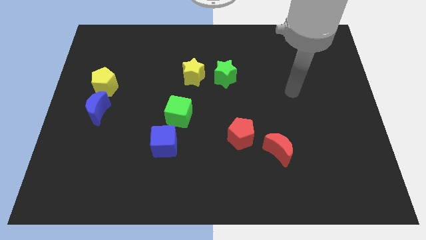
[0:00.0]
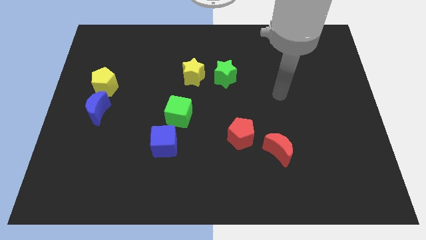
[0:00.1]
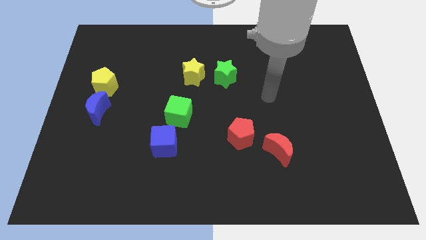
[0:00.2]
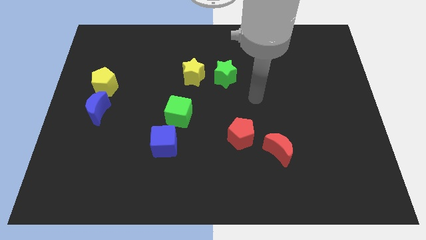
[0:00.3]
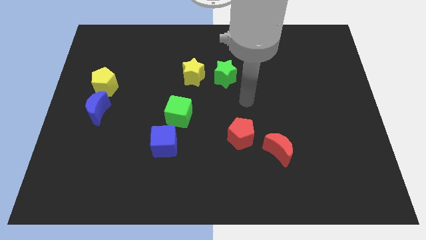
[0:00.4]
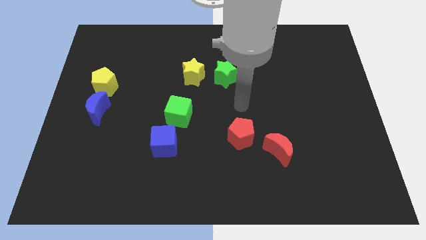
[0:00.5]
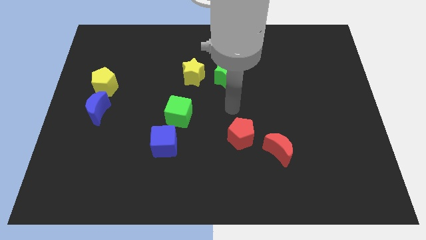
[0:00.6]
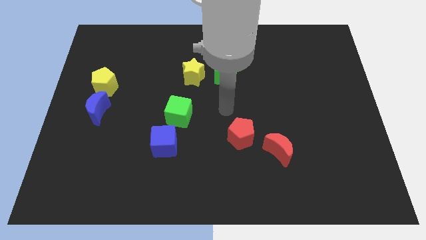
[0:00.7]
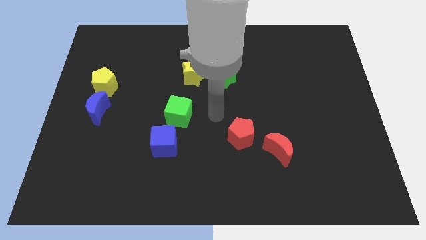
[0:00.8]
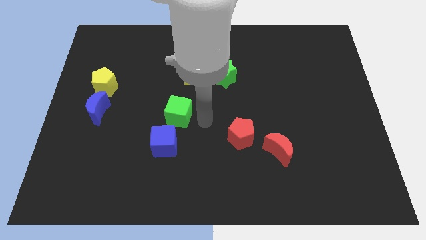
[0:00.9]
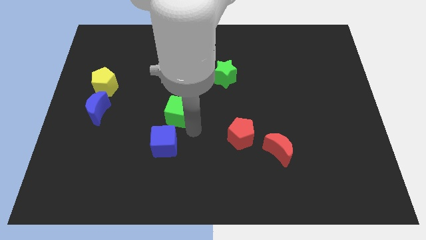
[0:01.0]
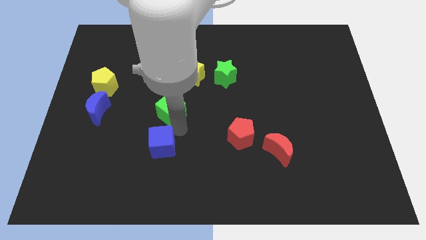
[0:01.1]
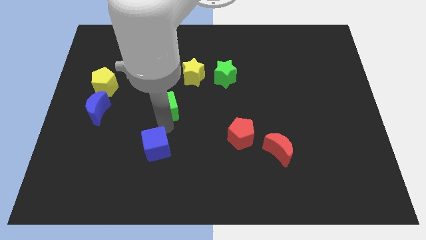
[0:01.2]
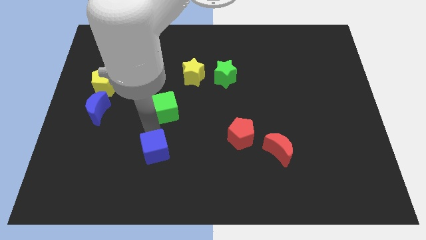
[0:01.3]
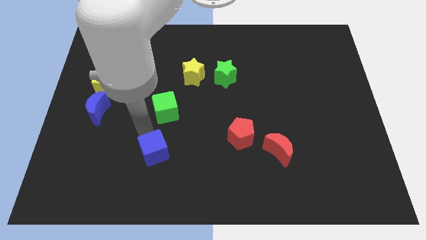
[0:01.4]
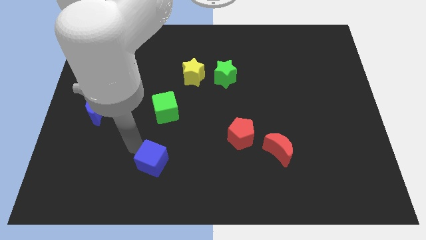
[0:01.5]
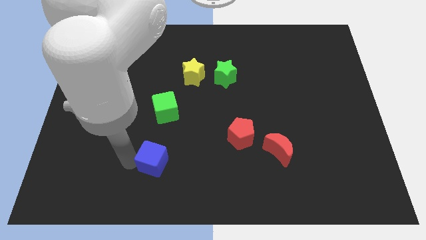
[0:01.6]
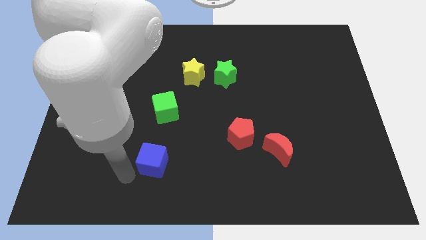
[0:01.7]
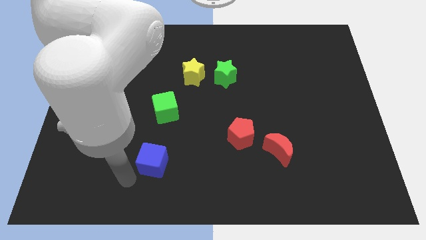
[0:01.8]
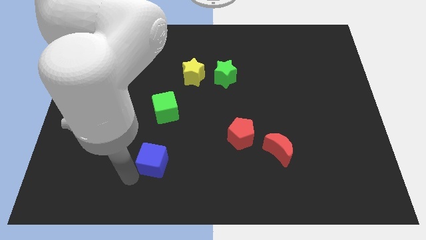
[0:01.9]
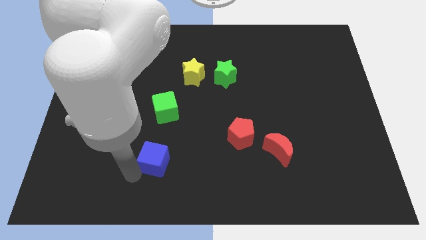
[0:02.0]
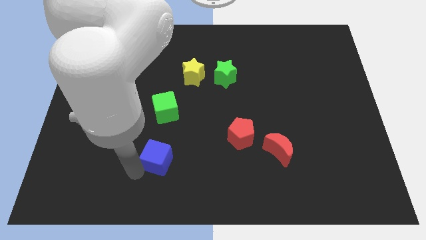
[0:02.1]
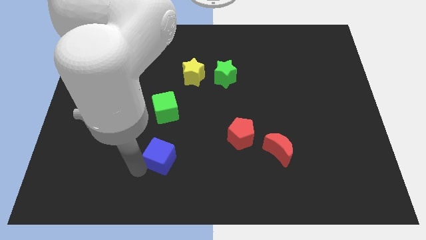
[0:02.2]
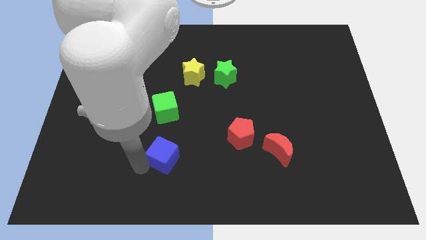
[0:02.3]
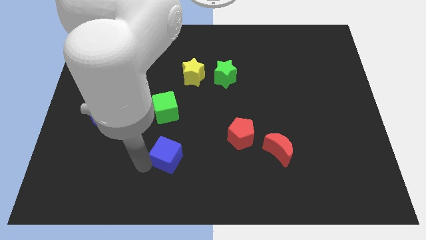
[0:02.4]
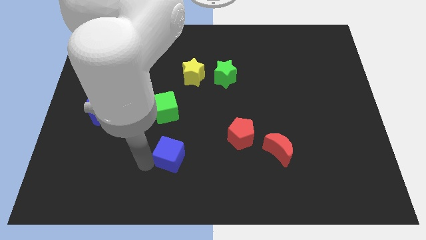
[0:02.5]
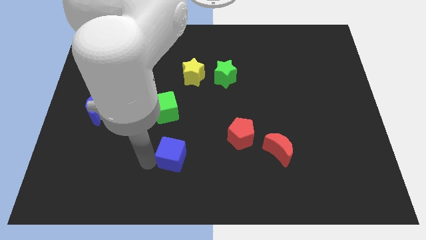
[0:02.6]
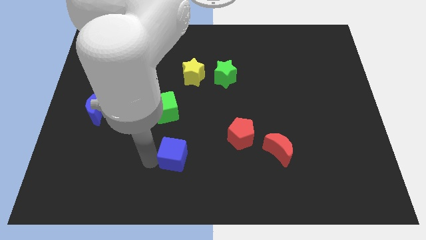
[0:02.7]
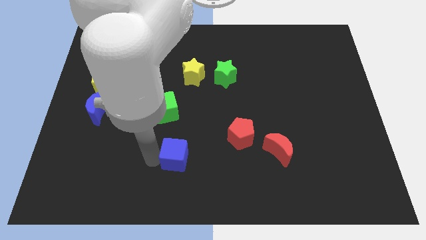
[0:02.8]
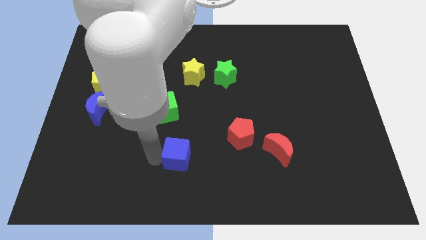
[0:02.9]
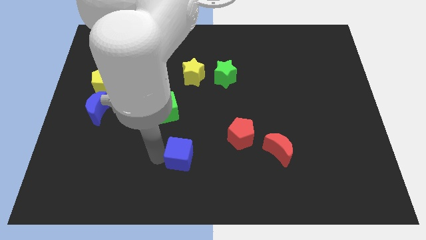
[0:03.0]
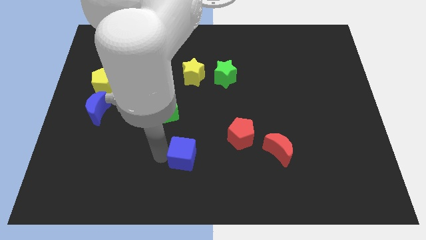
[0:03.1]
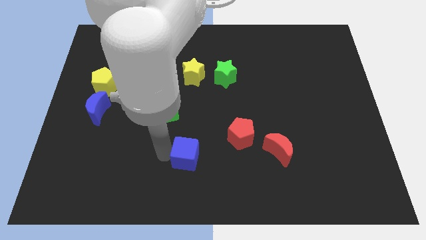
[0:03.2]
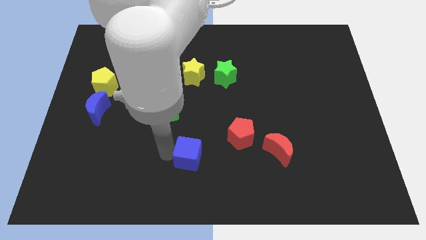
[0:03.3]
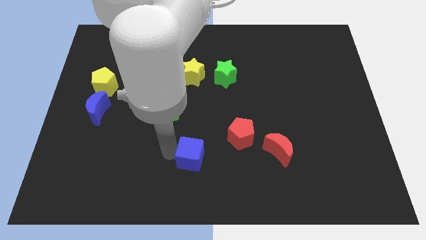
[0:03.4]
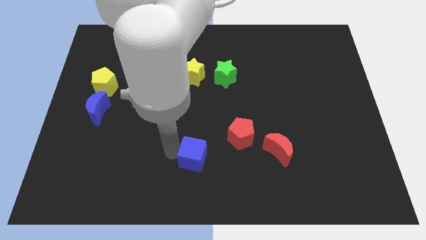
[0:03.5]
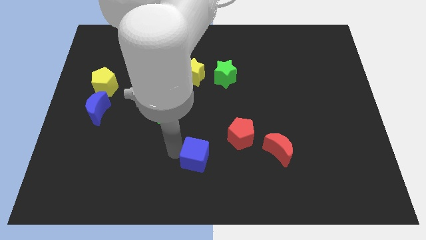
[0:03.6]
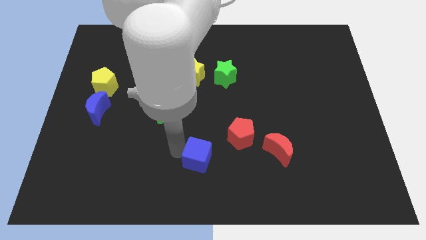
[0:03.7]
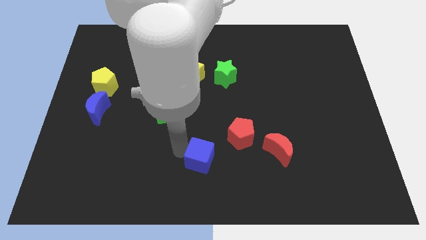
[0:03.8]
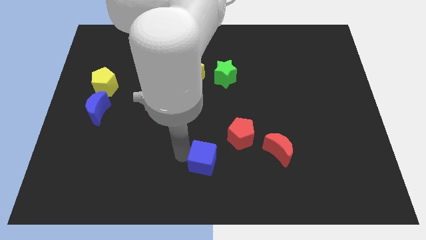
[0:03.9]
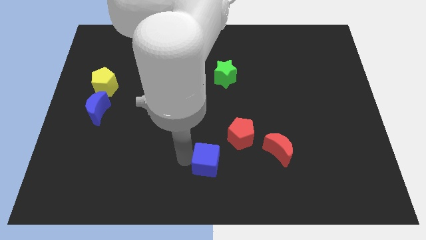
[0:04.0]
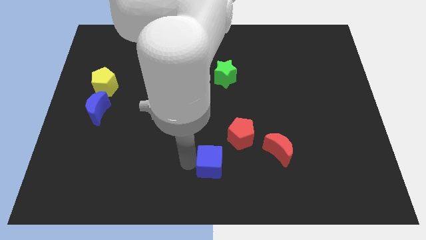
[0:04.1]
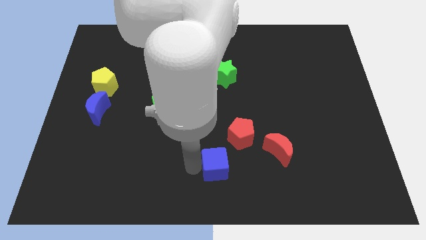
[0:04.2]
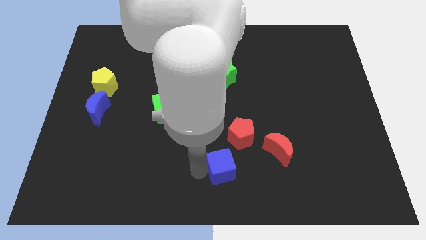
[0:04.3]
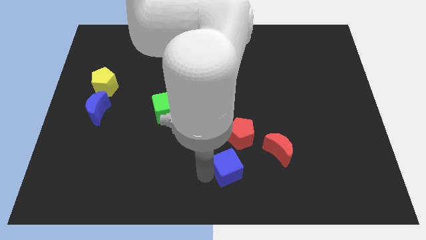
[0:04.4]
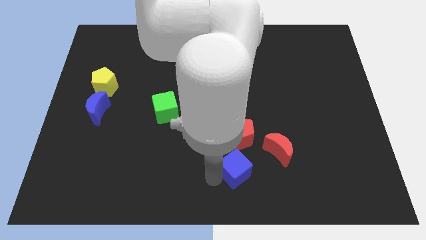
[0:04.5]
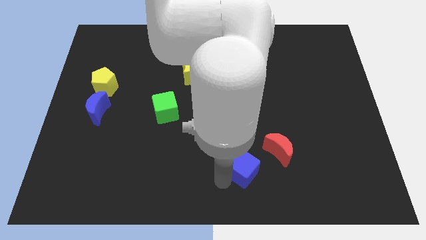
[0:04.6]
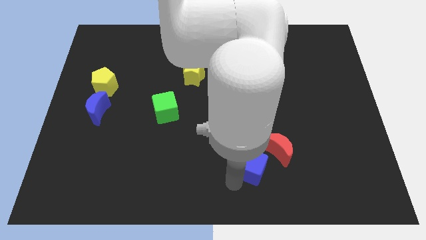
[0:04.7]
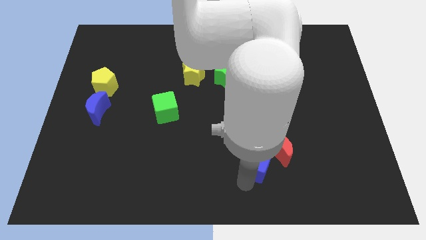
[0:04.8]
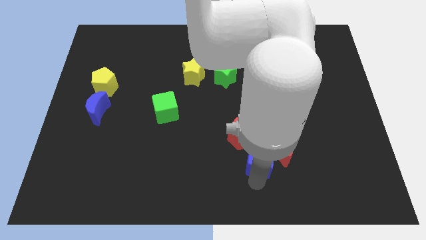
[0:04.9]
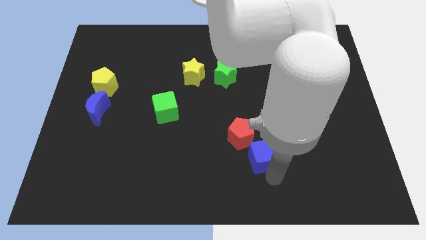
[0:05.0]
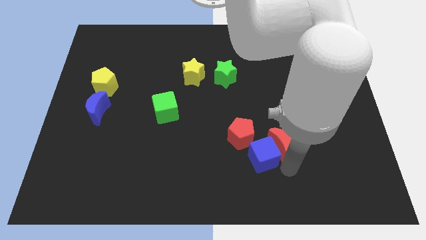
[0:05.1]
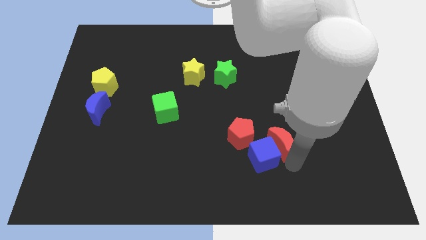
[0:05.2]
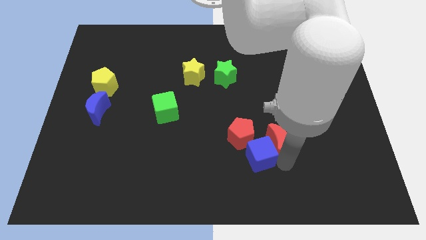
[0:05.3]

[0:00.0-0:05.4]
slide the blue cube to the red pentagon

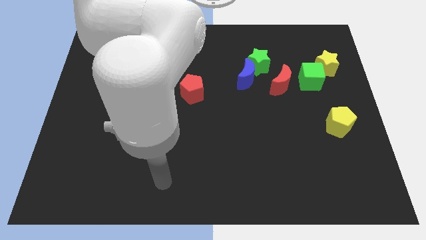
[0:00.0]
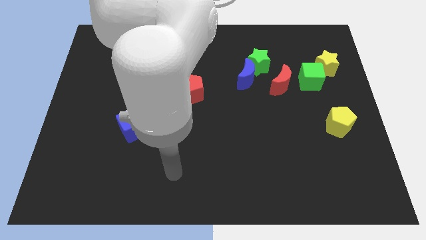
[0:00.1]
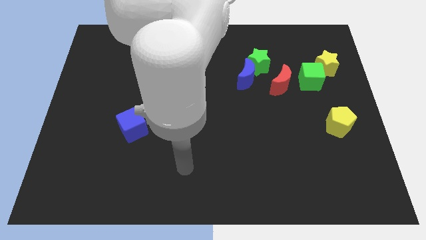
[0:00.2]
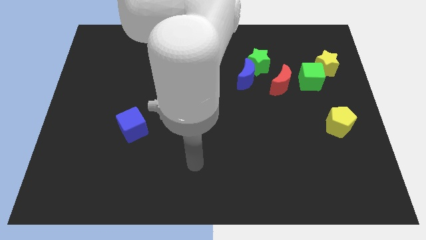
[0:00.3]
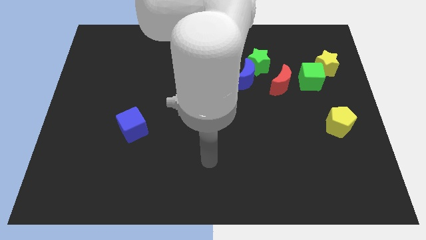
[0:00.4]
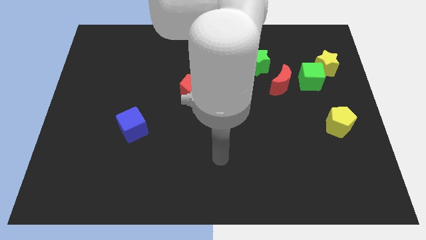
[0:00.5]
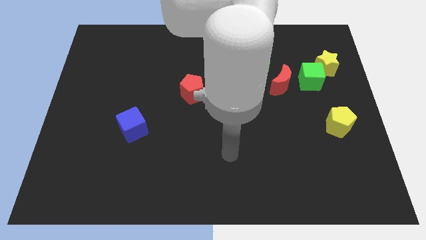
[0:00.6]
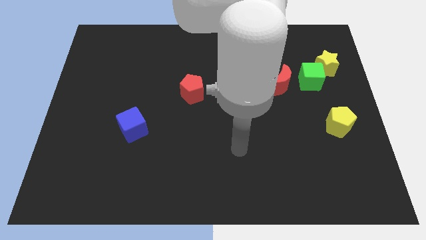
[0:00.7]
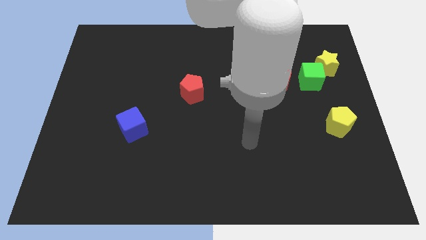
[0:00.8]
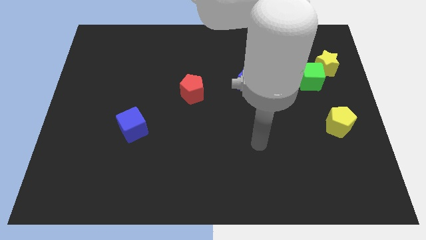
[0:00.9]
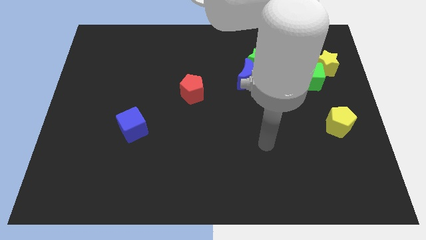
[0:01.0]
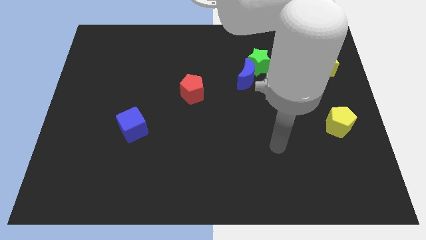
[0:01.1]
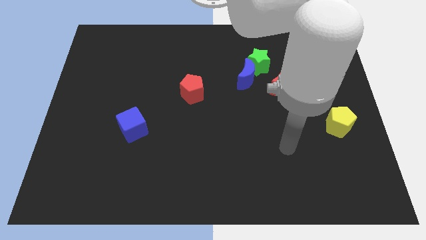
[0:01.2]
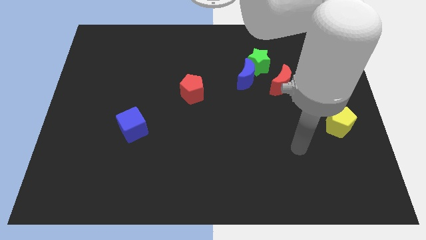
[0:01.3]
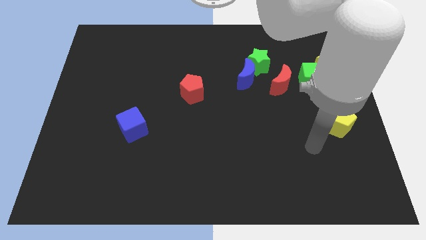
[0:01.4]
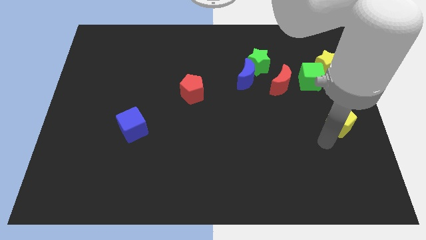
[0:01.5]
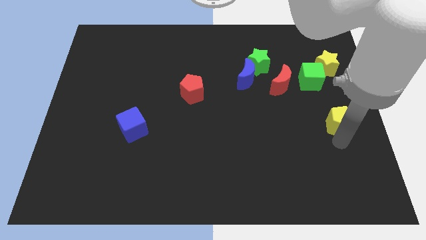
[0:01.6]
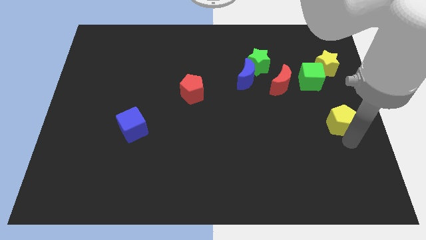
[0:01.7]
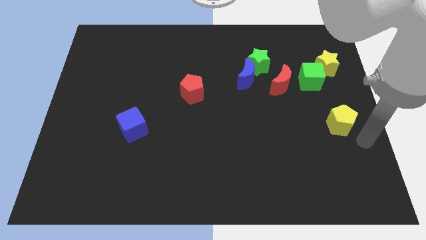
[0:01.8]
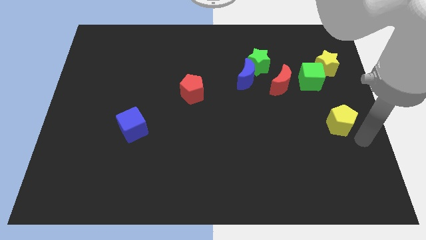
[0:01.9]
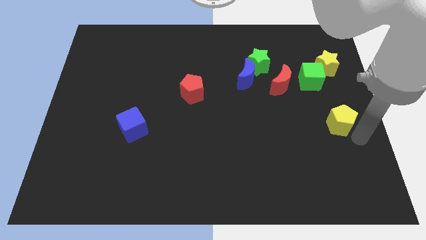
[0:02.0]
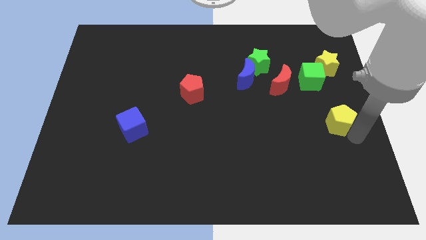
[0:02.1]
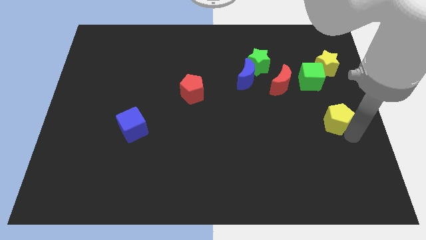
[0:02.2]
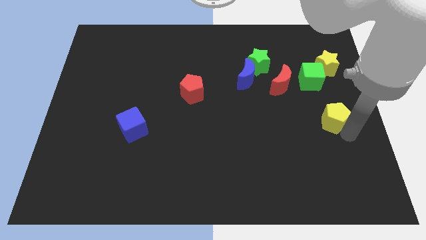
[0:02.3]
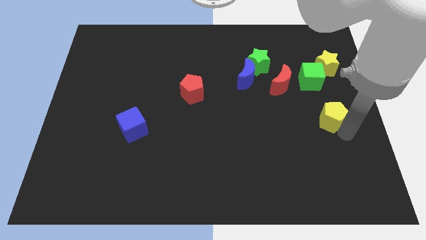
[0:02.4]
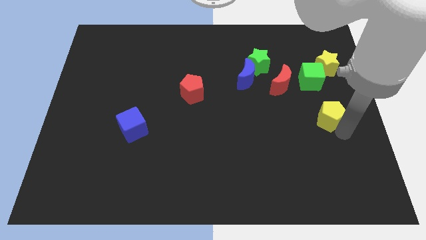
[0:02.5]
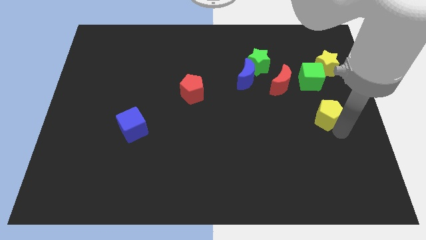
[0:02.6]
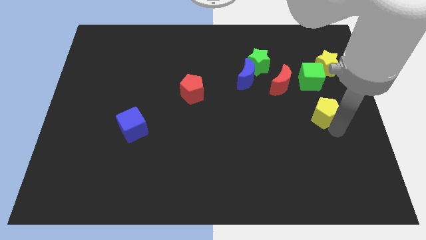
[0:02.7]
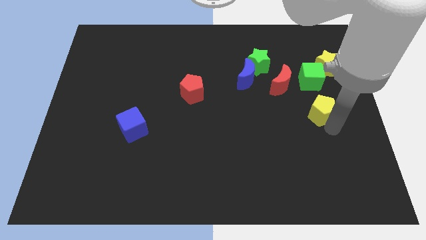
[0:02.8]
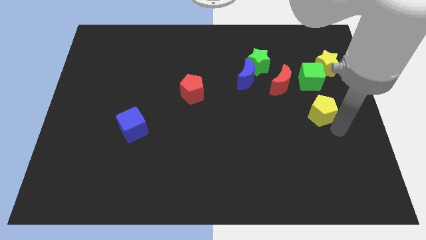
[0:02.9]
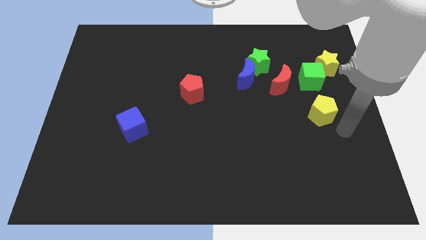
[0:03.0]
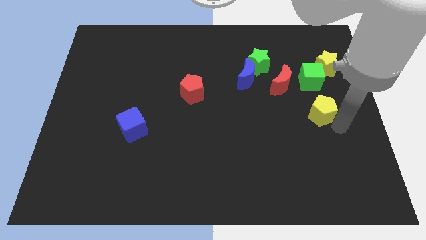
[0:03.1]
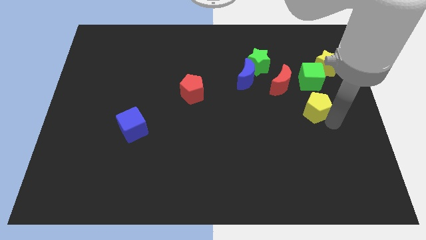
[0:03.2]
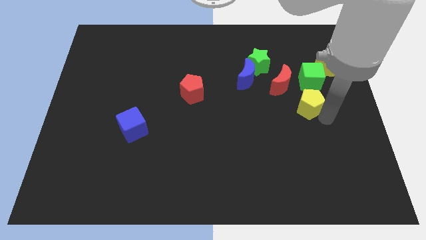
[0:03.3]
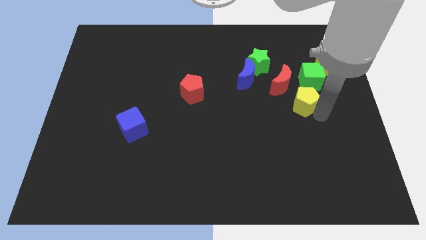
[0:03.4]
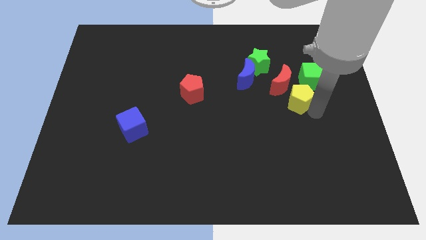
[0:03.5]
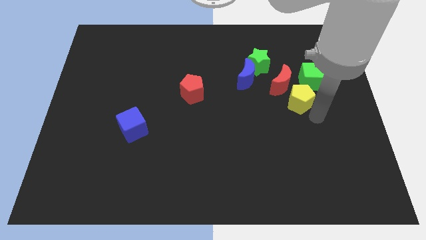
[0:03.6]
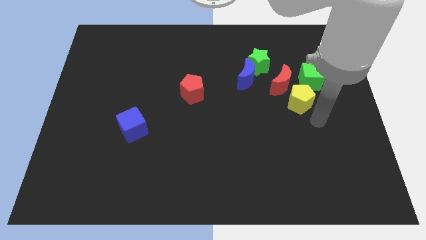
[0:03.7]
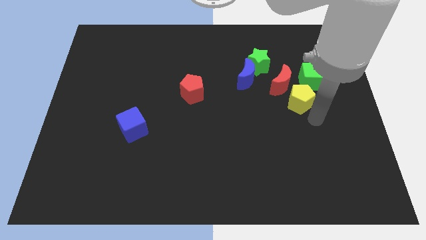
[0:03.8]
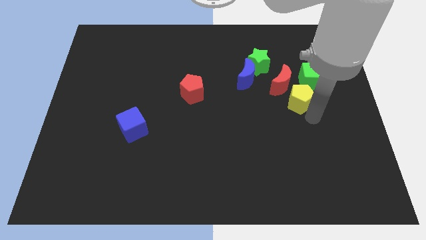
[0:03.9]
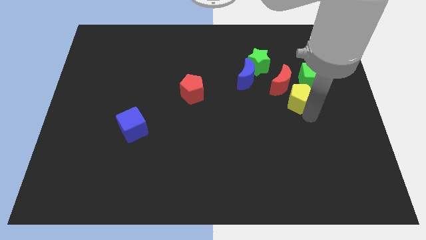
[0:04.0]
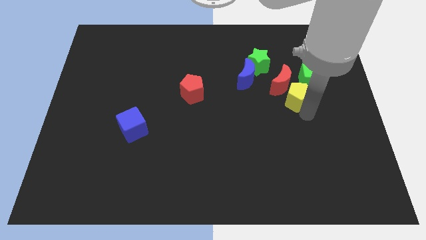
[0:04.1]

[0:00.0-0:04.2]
put the yellow pentagon close to the red moon
